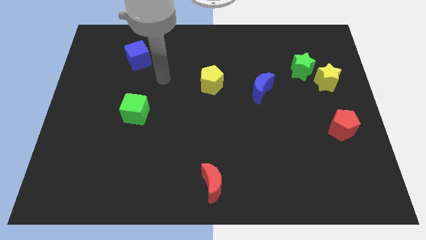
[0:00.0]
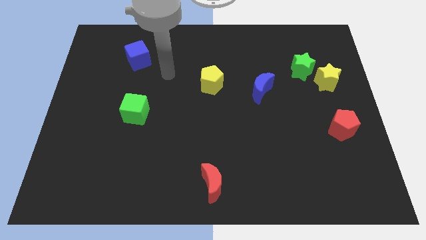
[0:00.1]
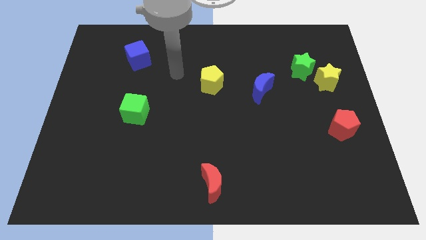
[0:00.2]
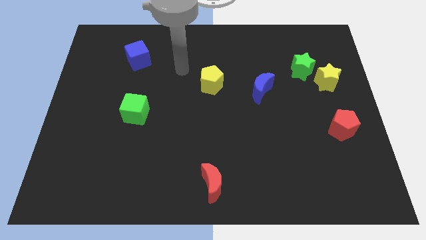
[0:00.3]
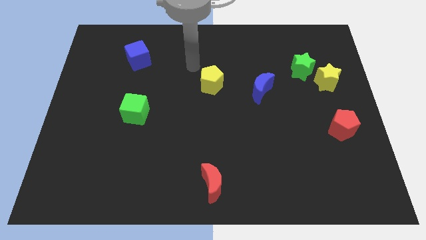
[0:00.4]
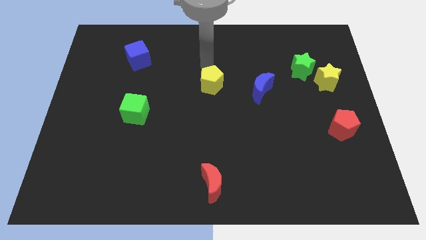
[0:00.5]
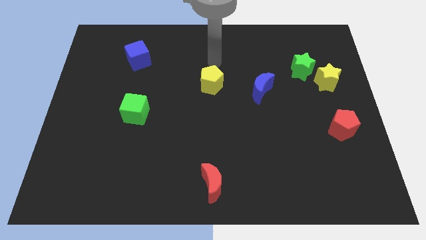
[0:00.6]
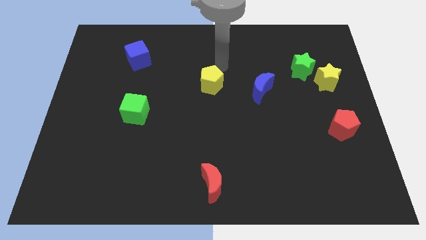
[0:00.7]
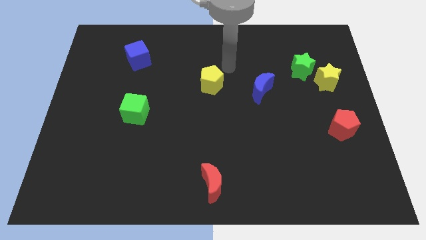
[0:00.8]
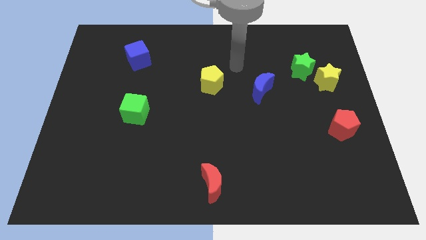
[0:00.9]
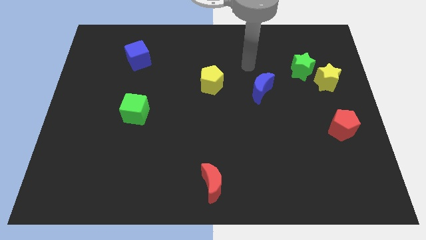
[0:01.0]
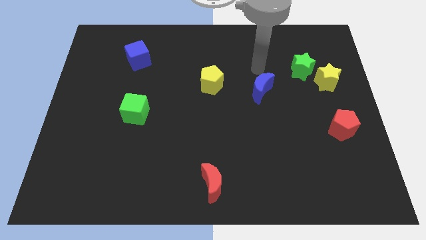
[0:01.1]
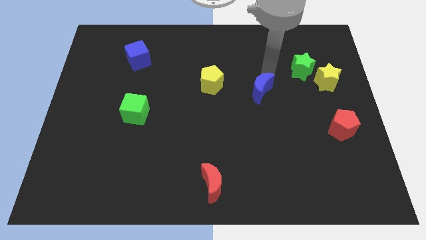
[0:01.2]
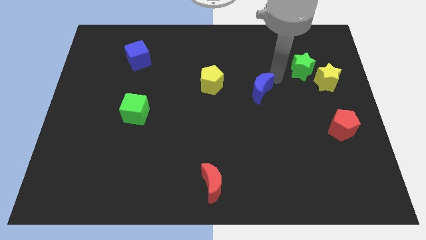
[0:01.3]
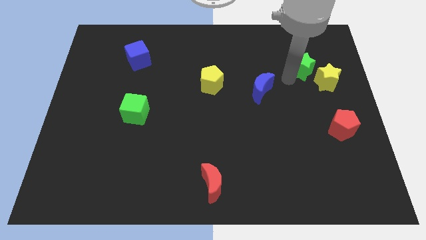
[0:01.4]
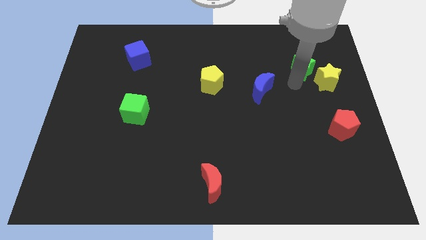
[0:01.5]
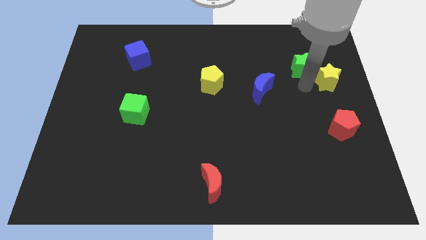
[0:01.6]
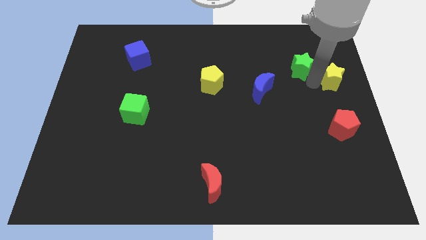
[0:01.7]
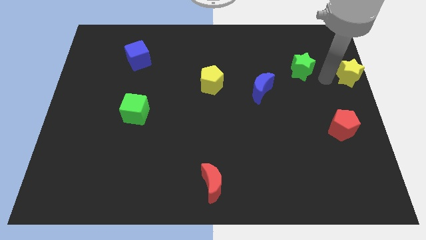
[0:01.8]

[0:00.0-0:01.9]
move the green star away from the yellow star

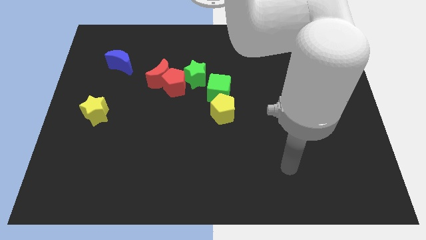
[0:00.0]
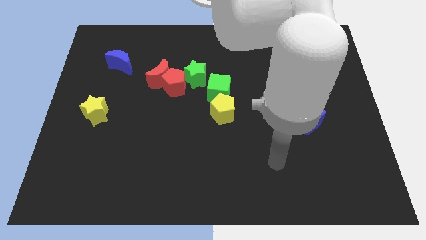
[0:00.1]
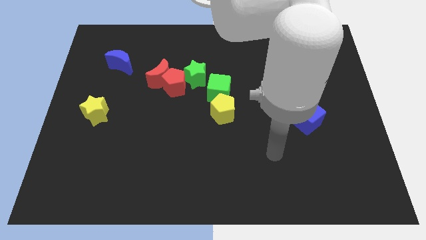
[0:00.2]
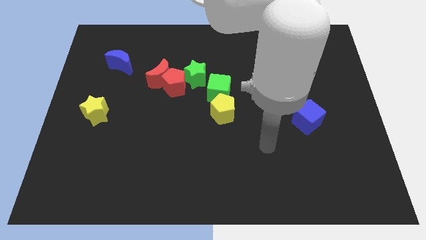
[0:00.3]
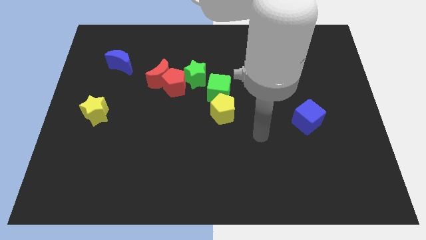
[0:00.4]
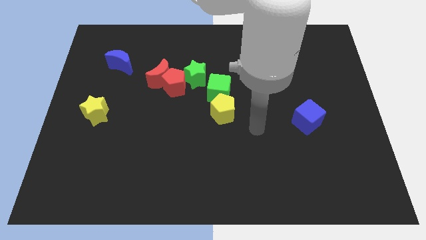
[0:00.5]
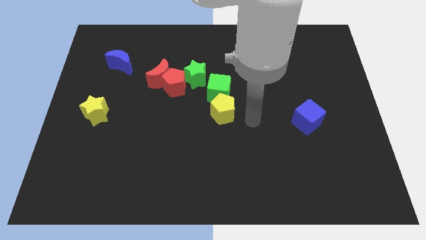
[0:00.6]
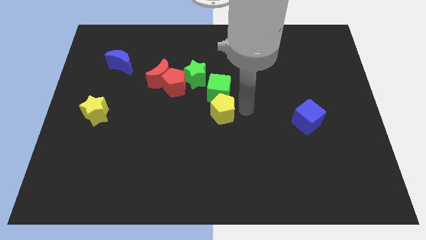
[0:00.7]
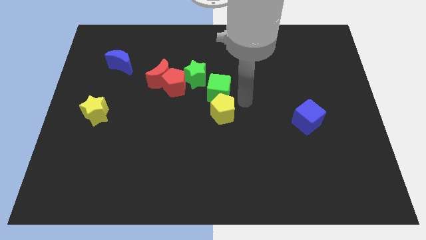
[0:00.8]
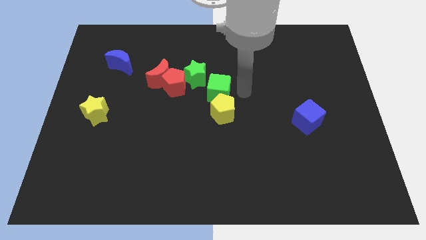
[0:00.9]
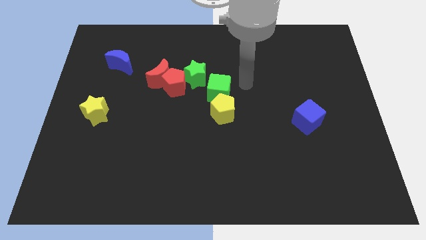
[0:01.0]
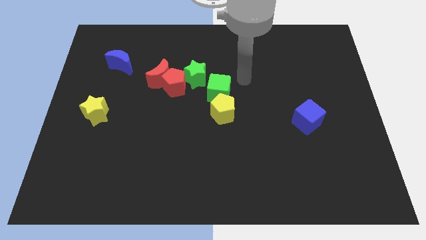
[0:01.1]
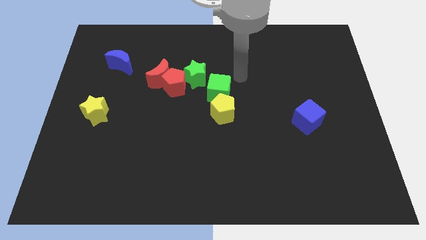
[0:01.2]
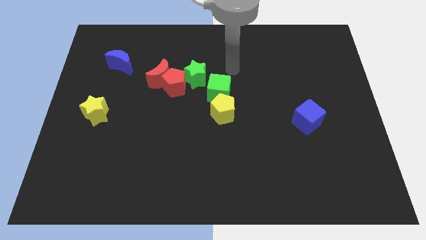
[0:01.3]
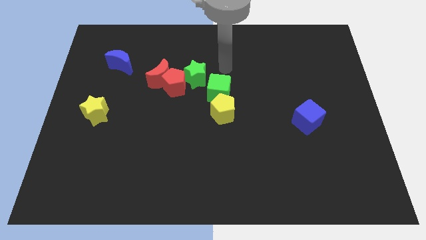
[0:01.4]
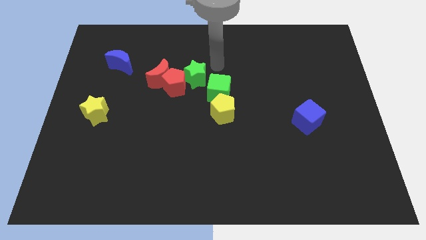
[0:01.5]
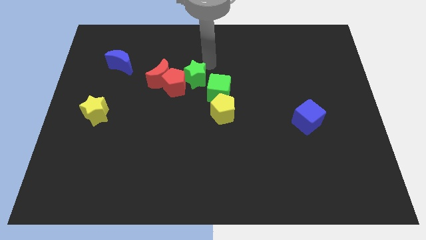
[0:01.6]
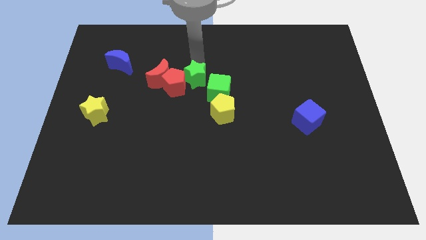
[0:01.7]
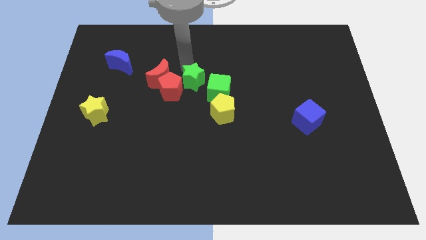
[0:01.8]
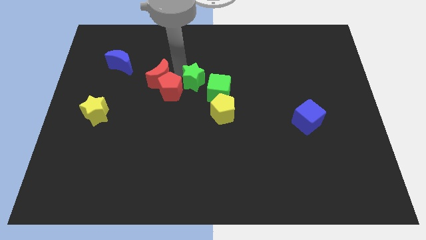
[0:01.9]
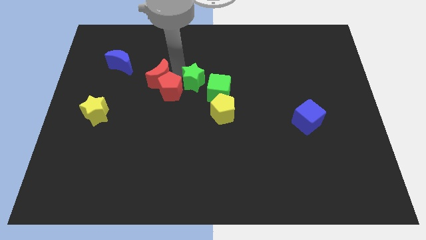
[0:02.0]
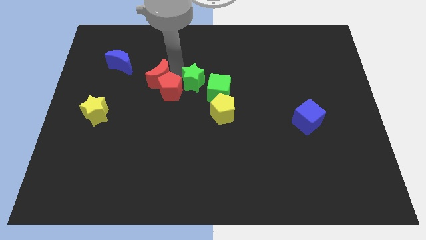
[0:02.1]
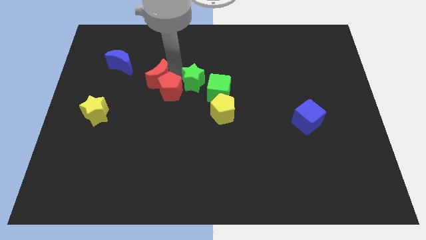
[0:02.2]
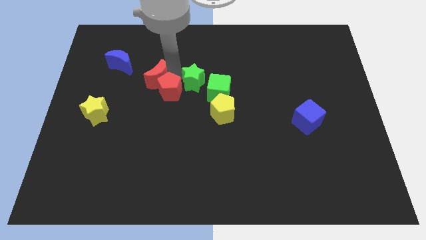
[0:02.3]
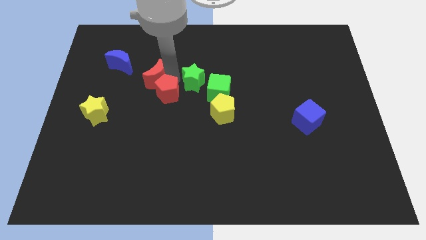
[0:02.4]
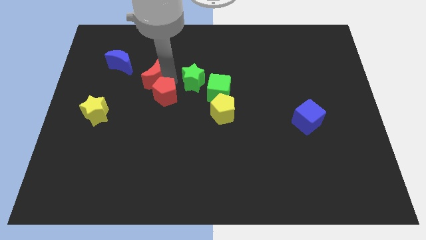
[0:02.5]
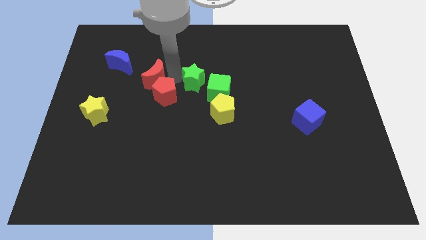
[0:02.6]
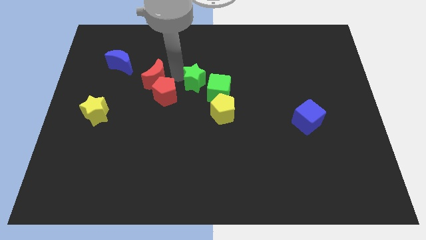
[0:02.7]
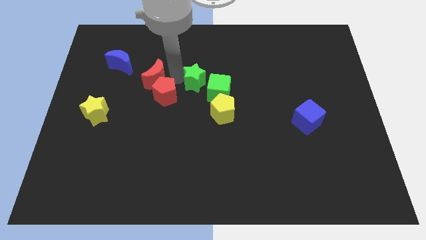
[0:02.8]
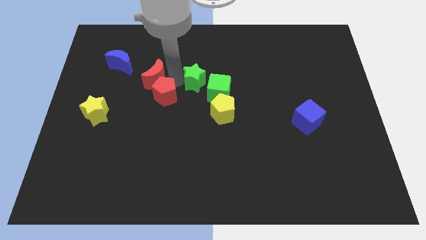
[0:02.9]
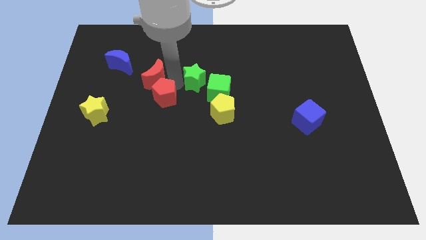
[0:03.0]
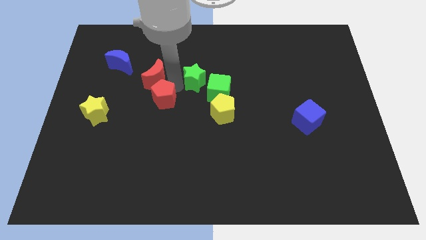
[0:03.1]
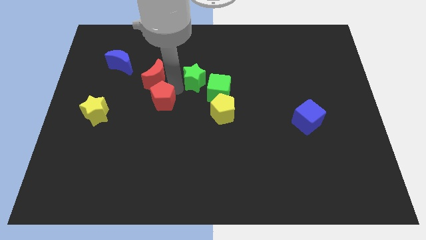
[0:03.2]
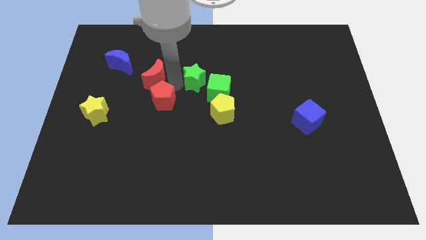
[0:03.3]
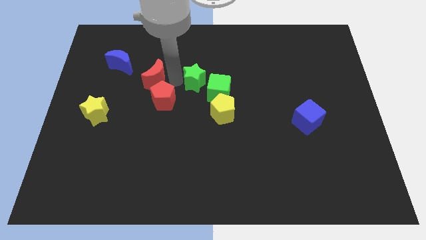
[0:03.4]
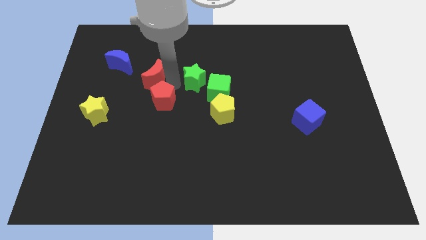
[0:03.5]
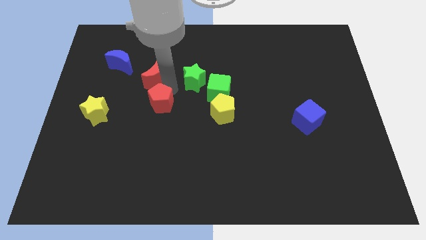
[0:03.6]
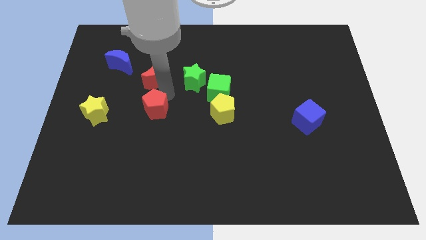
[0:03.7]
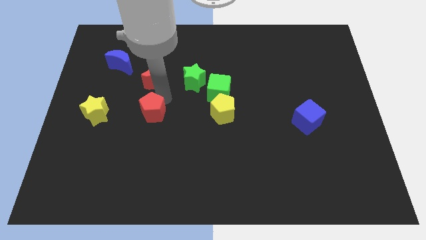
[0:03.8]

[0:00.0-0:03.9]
pull the red pentagon apart from the red moon and green star

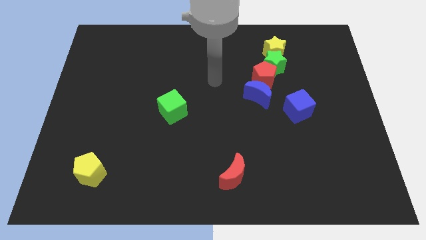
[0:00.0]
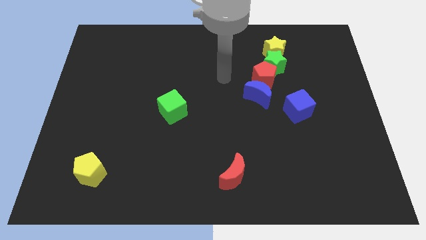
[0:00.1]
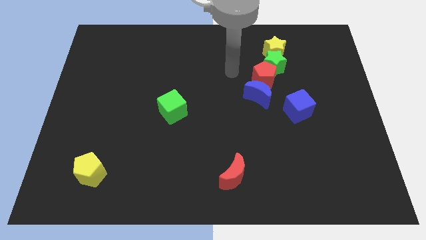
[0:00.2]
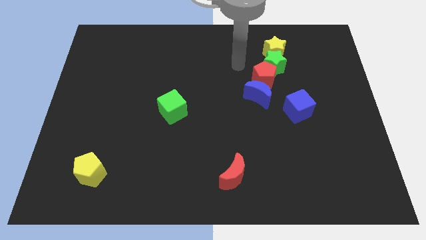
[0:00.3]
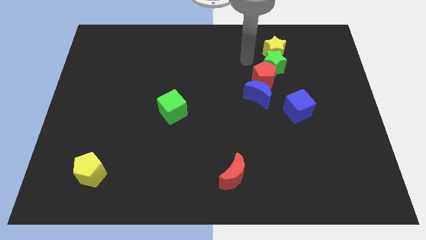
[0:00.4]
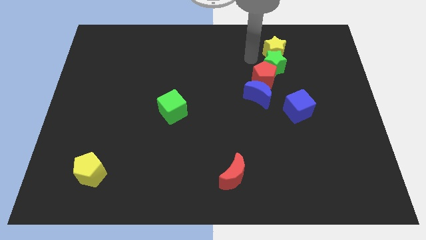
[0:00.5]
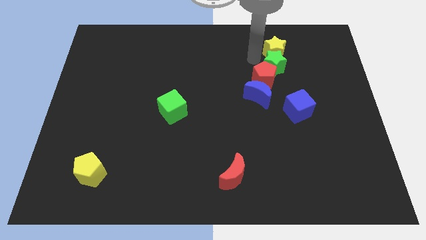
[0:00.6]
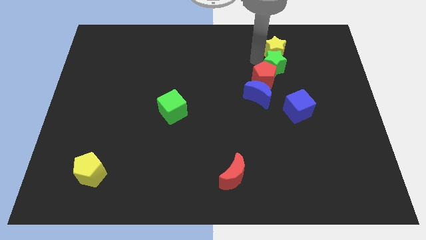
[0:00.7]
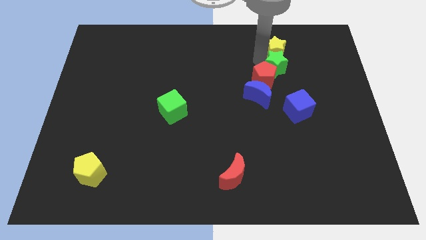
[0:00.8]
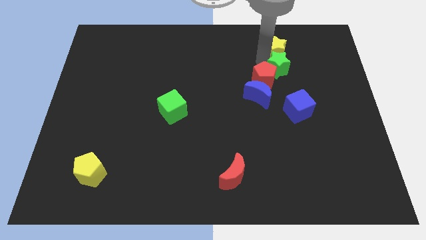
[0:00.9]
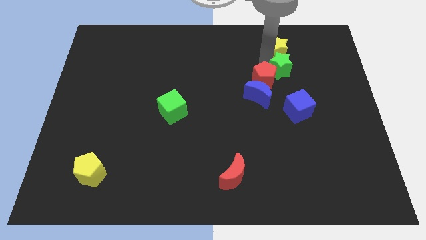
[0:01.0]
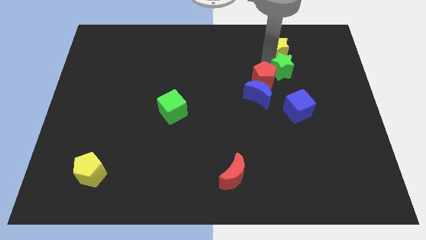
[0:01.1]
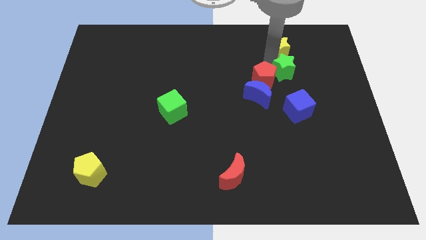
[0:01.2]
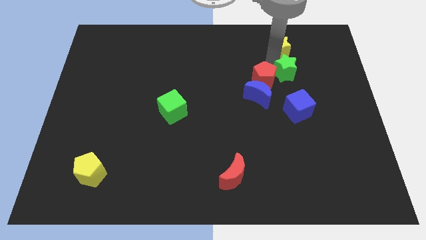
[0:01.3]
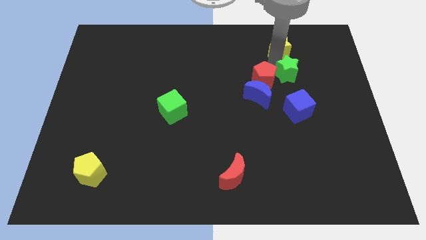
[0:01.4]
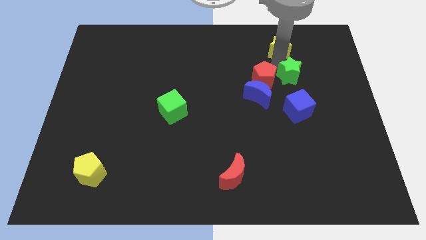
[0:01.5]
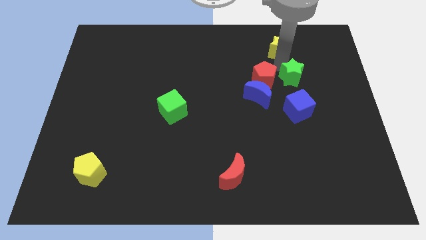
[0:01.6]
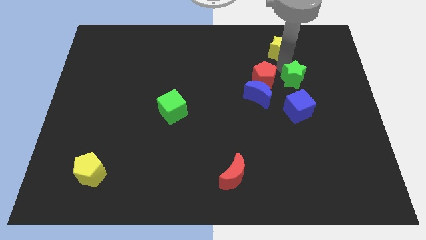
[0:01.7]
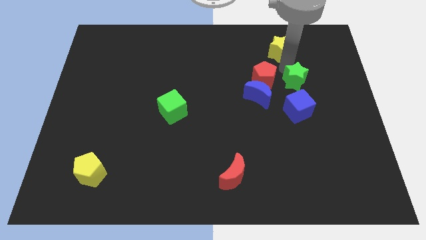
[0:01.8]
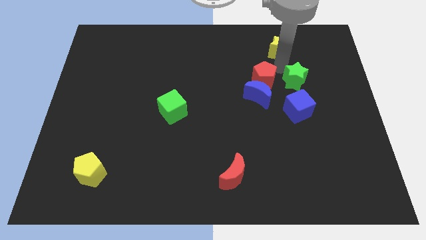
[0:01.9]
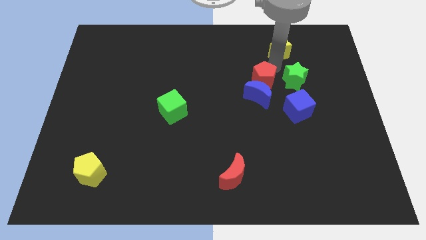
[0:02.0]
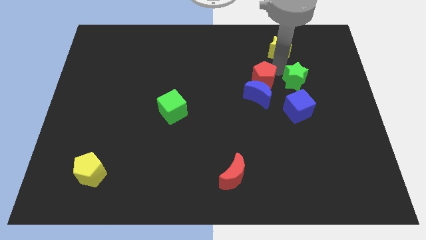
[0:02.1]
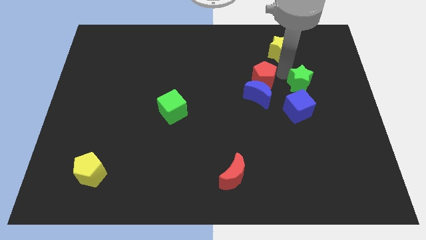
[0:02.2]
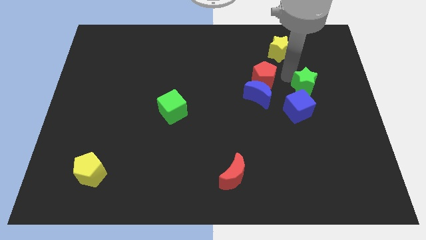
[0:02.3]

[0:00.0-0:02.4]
pull the green star apart from the red pentagon and yellow star

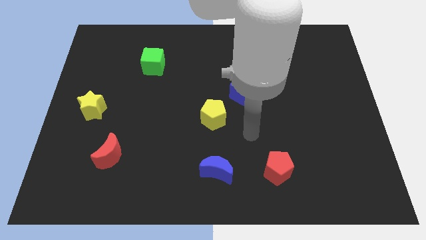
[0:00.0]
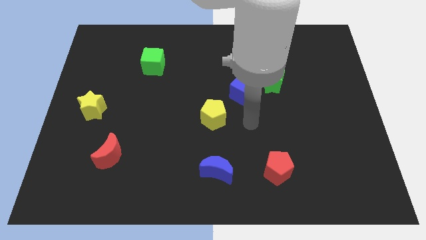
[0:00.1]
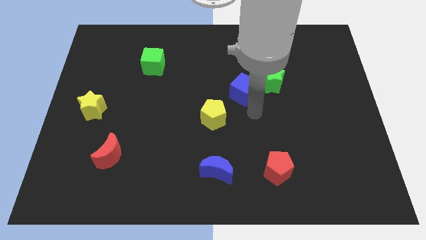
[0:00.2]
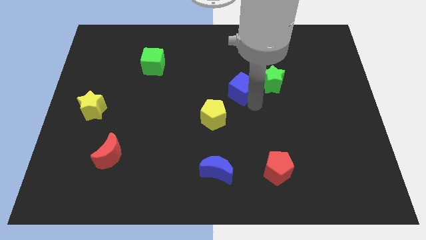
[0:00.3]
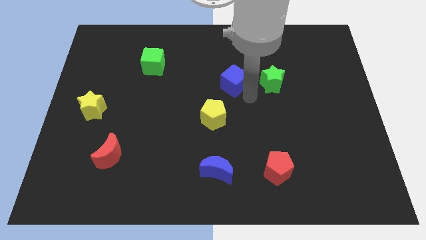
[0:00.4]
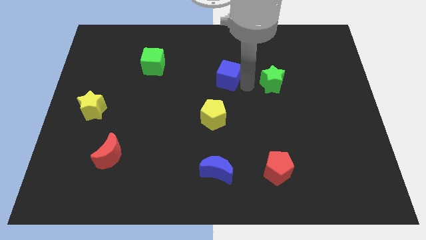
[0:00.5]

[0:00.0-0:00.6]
pull the green star apart from the blue cube

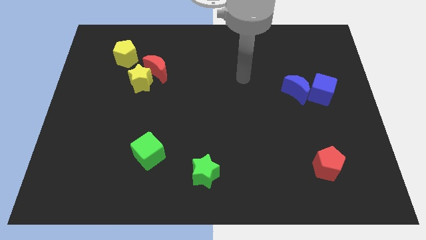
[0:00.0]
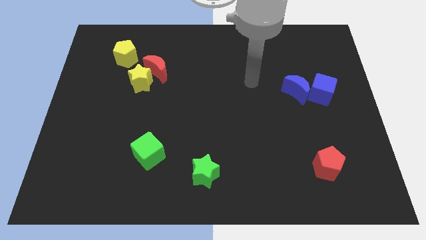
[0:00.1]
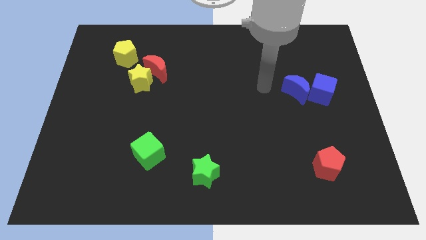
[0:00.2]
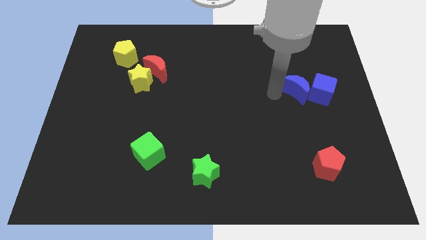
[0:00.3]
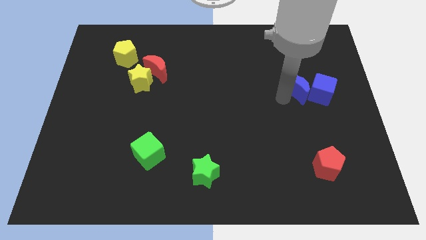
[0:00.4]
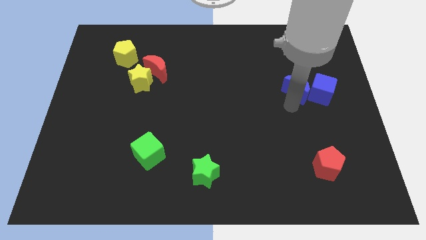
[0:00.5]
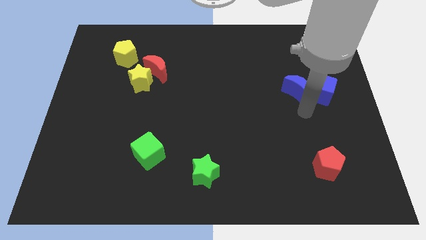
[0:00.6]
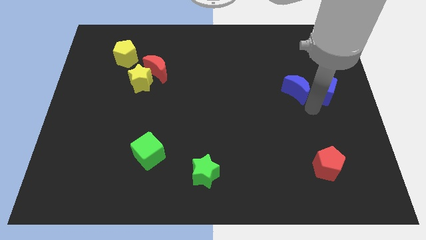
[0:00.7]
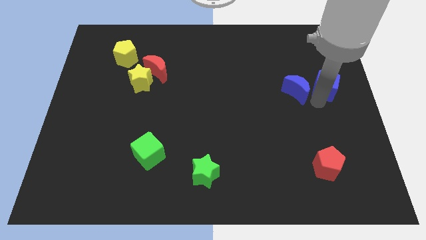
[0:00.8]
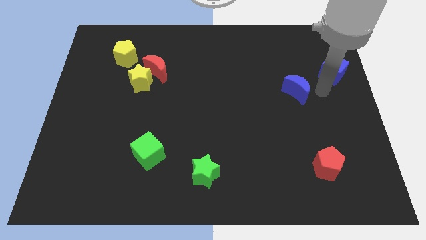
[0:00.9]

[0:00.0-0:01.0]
pull the blue moon apart from the blue cube
